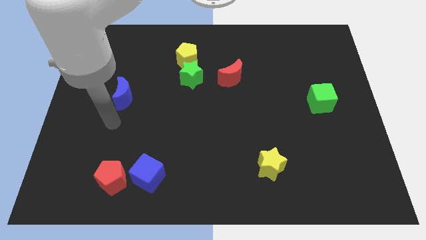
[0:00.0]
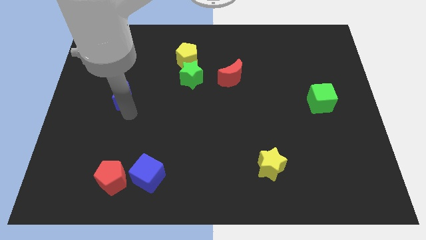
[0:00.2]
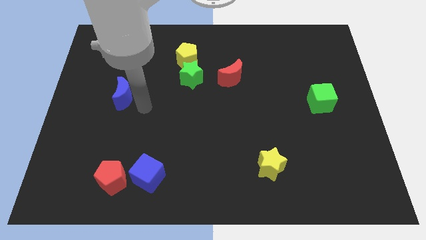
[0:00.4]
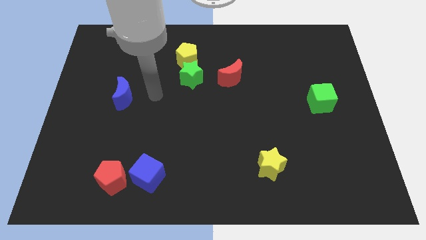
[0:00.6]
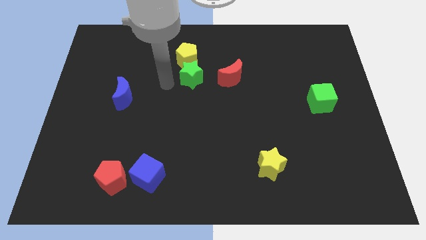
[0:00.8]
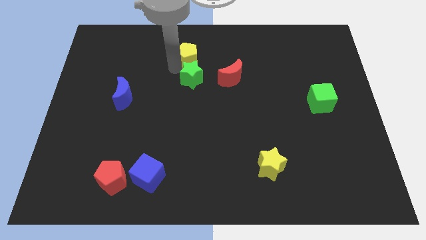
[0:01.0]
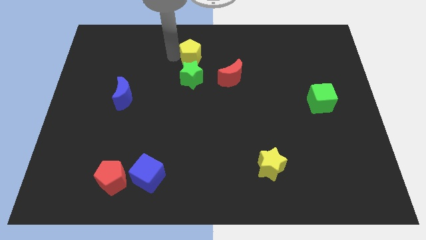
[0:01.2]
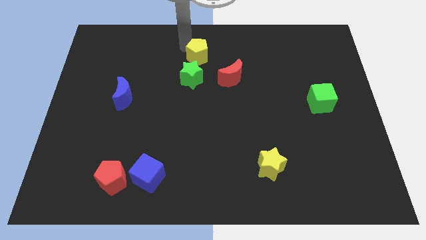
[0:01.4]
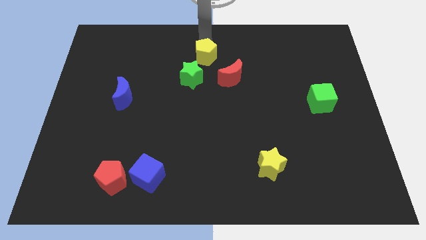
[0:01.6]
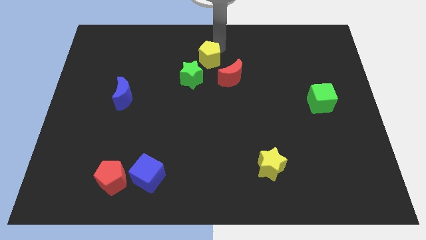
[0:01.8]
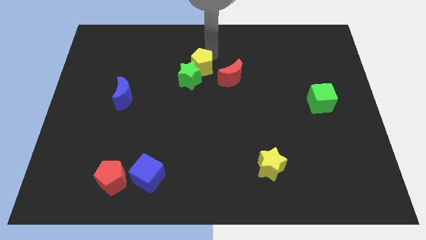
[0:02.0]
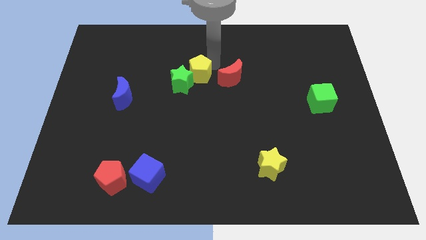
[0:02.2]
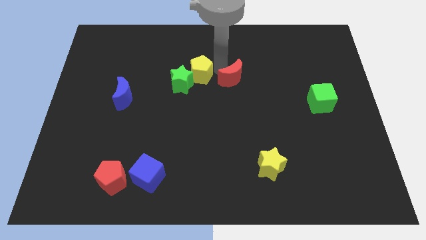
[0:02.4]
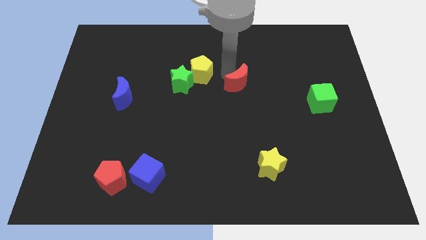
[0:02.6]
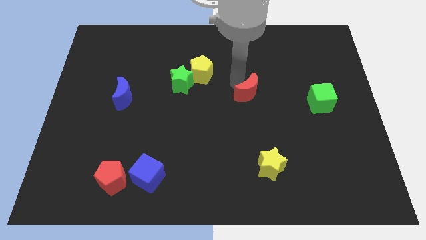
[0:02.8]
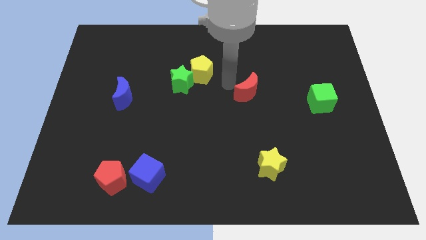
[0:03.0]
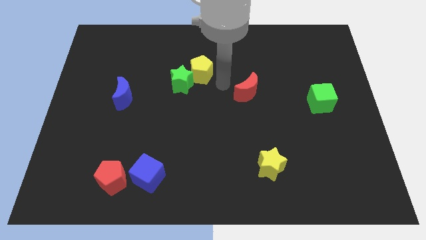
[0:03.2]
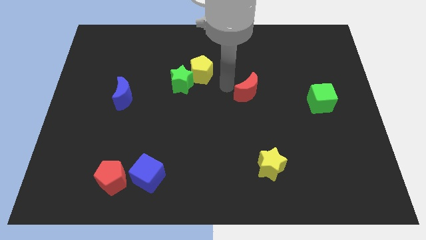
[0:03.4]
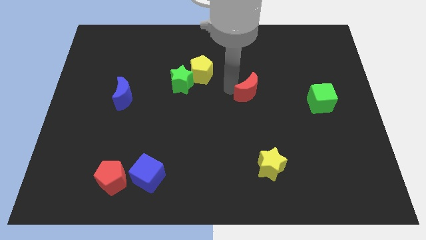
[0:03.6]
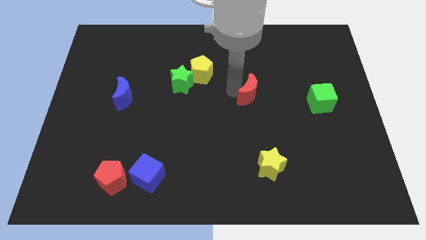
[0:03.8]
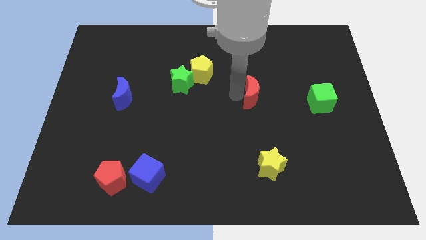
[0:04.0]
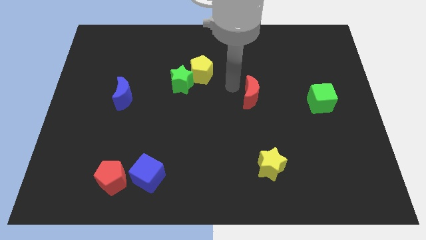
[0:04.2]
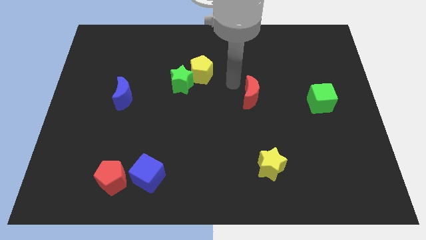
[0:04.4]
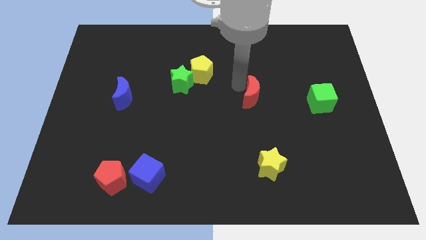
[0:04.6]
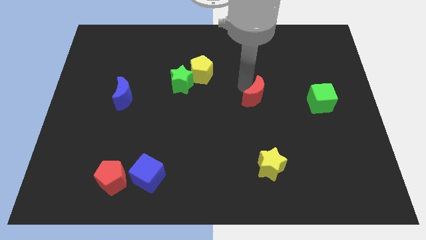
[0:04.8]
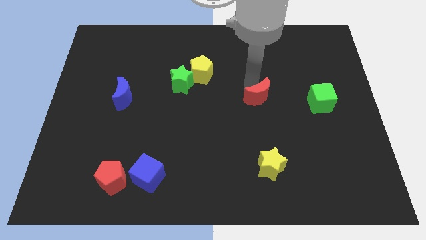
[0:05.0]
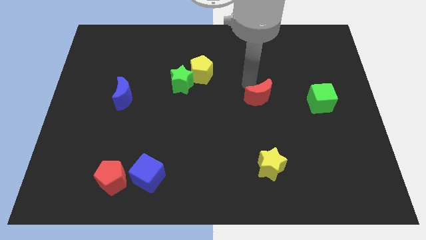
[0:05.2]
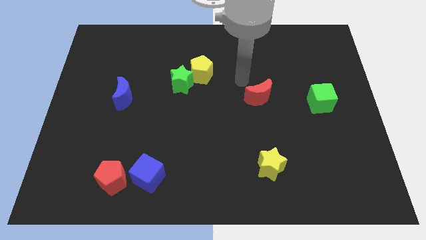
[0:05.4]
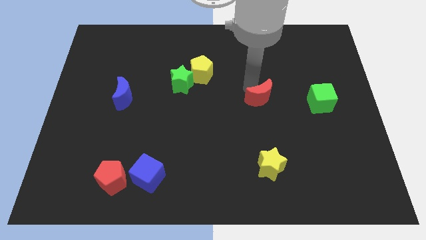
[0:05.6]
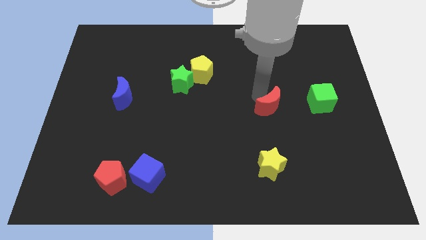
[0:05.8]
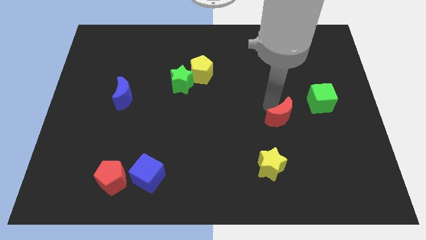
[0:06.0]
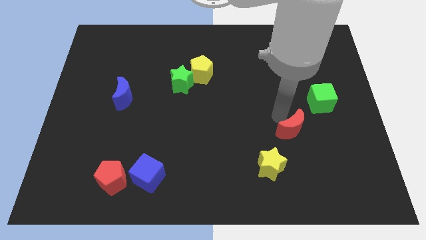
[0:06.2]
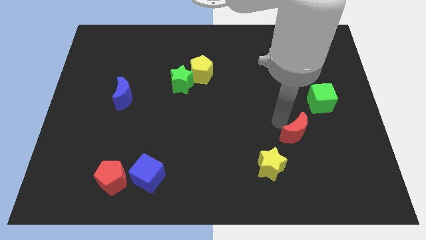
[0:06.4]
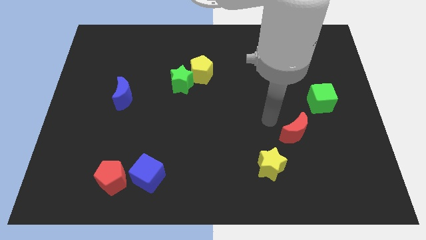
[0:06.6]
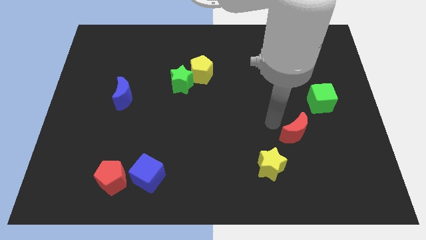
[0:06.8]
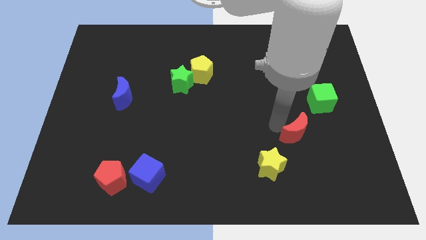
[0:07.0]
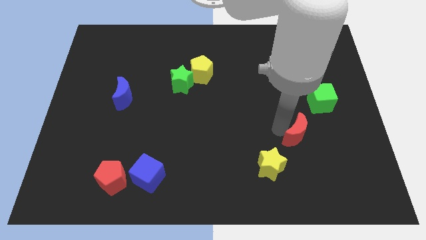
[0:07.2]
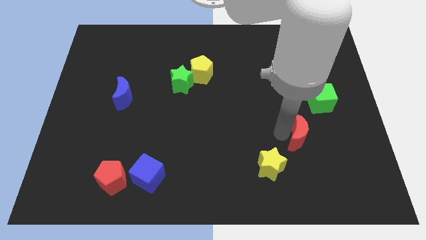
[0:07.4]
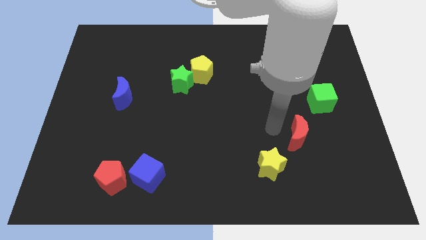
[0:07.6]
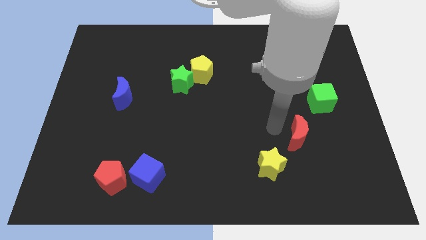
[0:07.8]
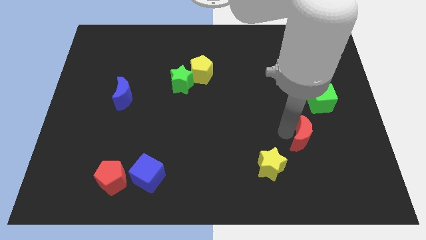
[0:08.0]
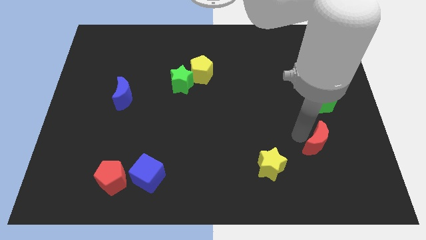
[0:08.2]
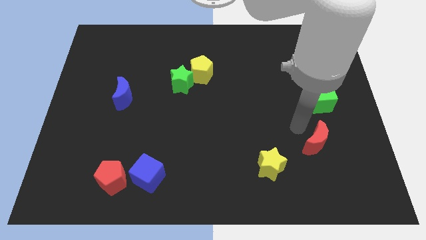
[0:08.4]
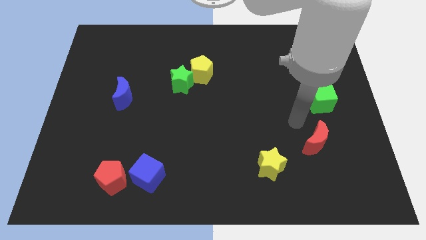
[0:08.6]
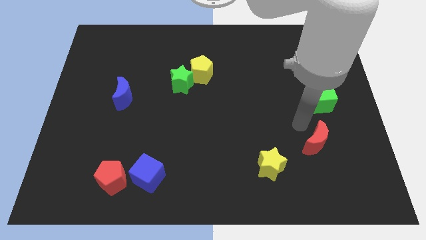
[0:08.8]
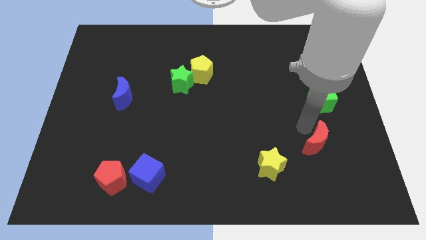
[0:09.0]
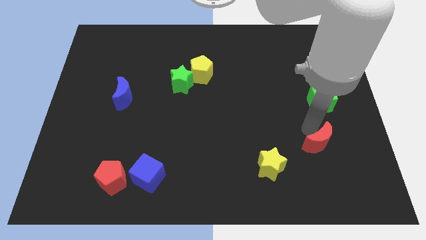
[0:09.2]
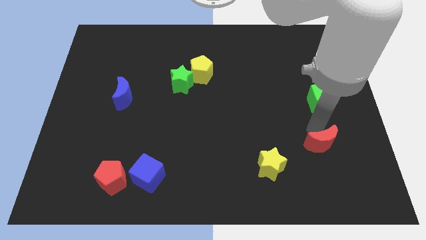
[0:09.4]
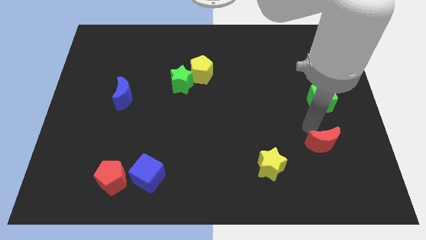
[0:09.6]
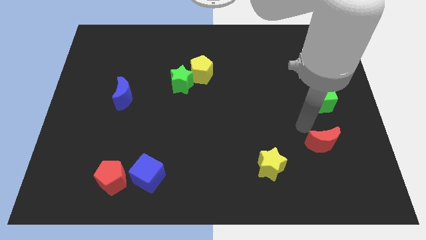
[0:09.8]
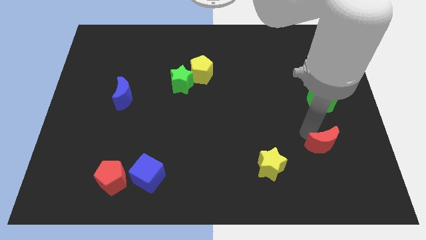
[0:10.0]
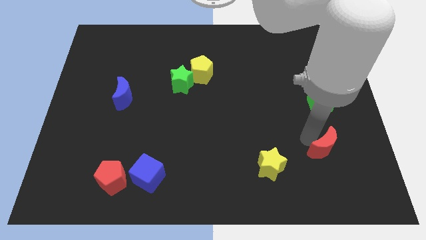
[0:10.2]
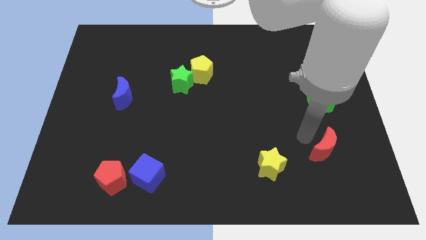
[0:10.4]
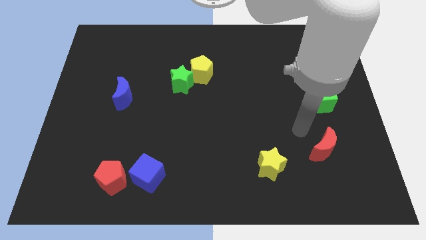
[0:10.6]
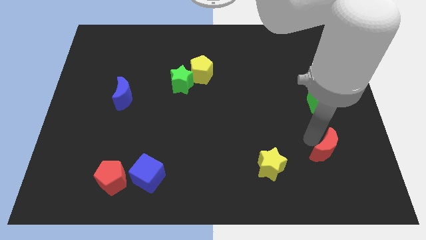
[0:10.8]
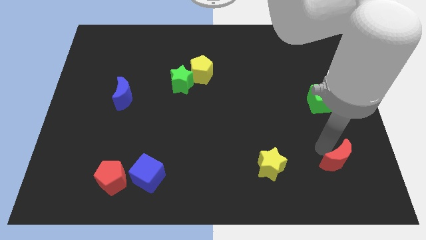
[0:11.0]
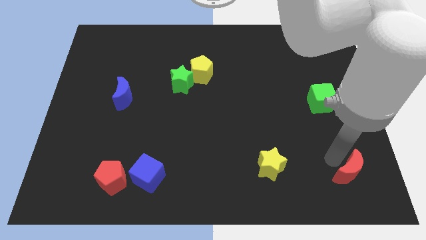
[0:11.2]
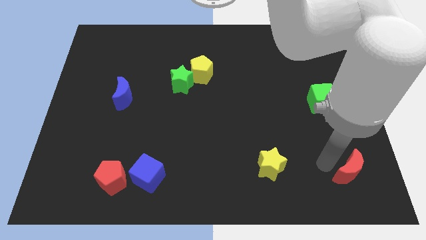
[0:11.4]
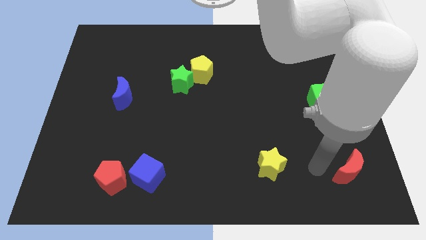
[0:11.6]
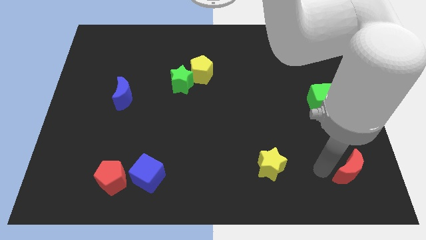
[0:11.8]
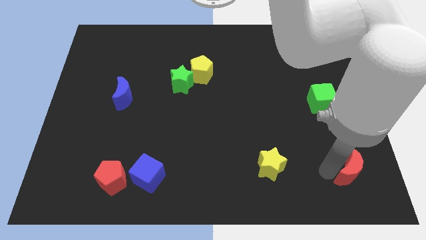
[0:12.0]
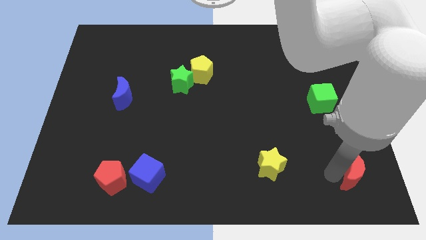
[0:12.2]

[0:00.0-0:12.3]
push the red moon to the bottom right corner
